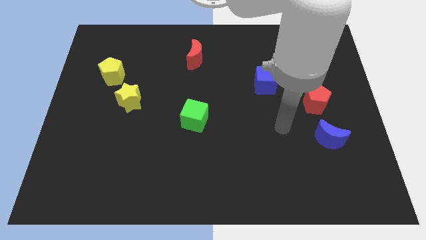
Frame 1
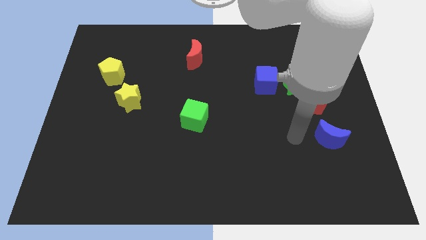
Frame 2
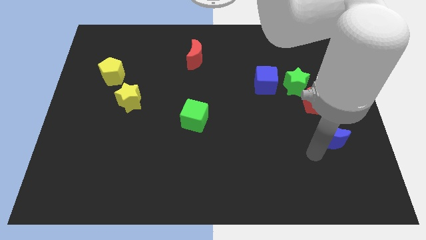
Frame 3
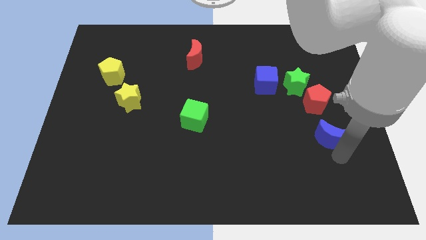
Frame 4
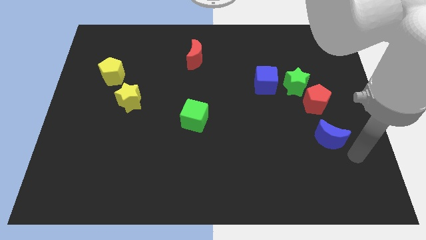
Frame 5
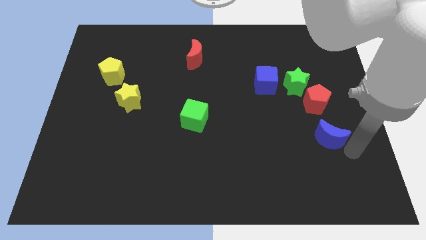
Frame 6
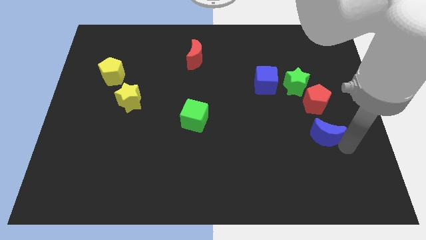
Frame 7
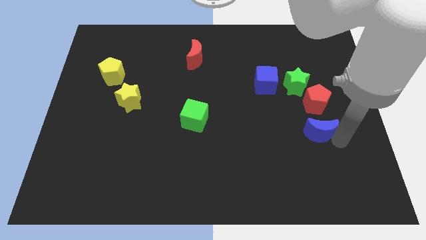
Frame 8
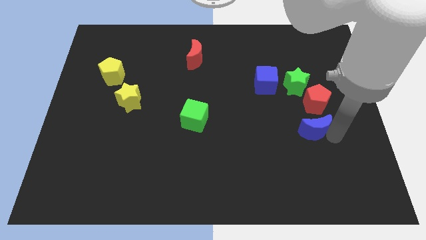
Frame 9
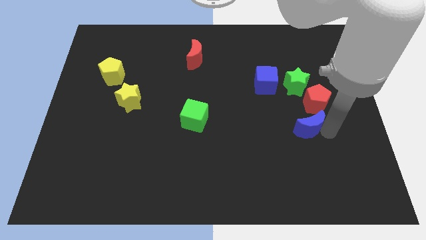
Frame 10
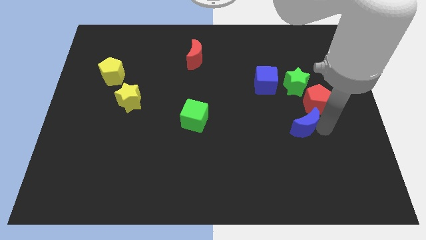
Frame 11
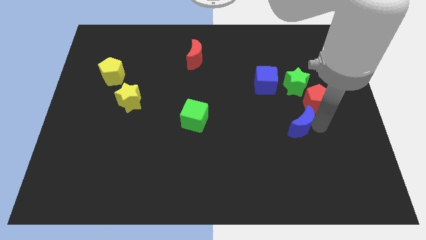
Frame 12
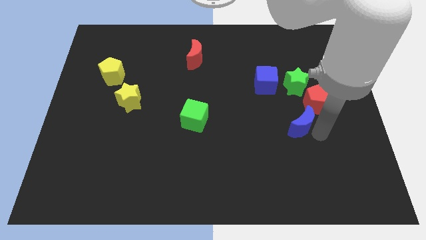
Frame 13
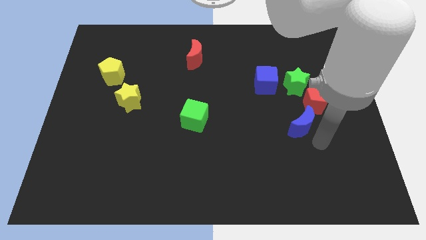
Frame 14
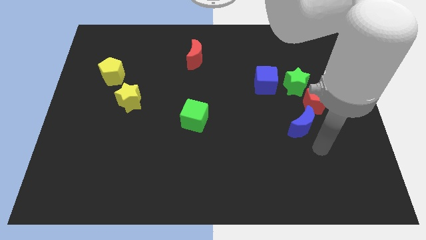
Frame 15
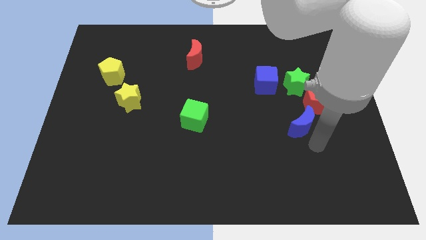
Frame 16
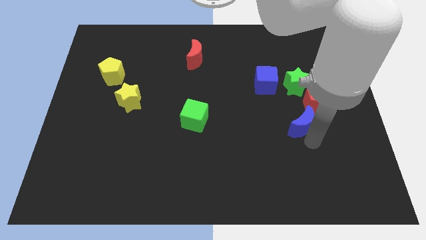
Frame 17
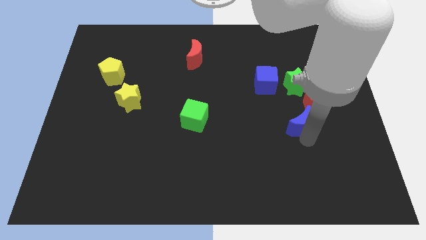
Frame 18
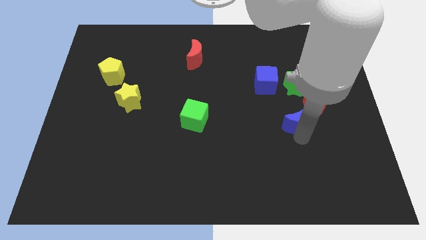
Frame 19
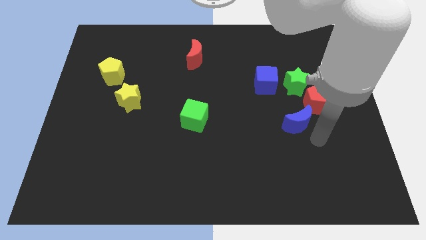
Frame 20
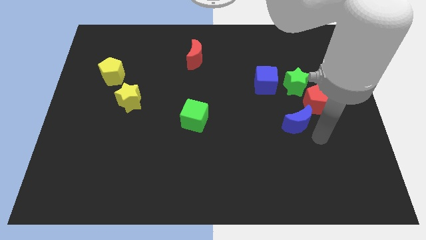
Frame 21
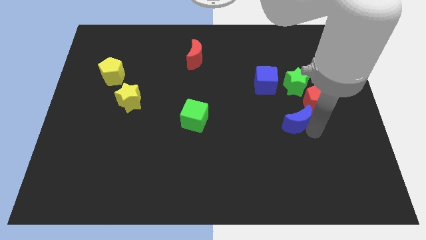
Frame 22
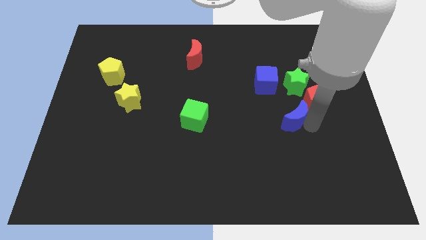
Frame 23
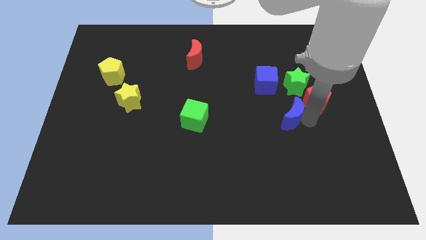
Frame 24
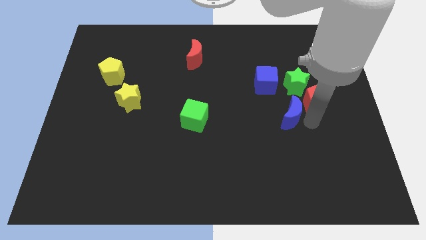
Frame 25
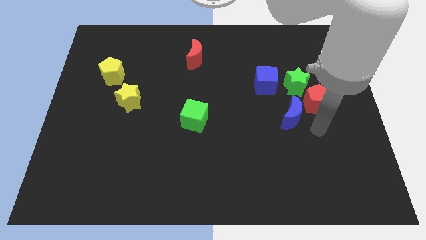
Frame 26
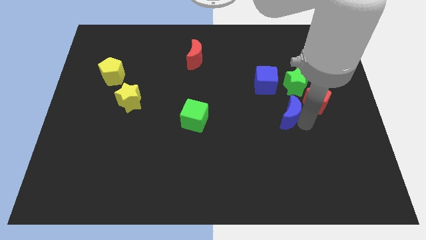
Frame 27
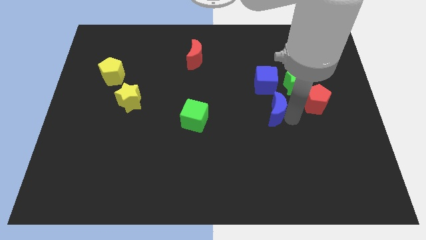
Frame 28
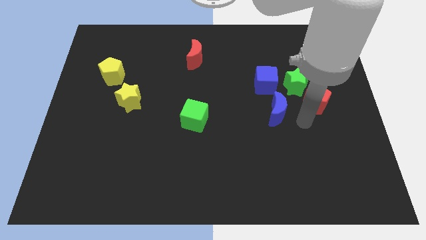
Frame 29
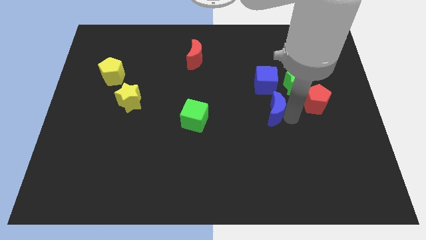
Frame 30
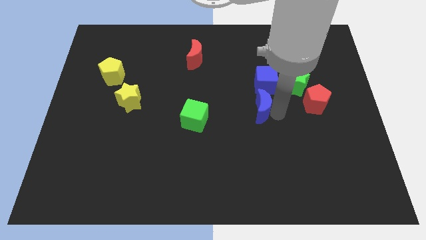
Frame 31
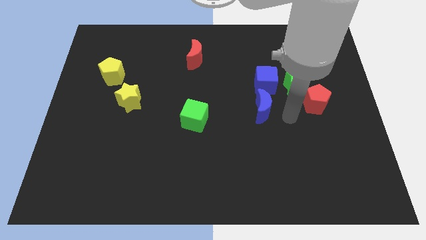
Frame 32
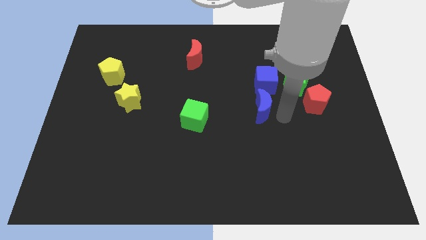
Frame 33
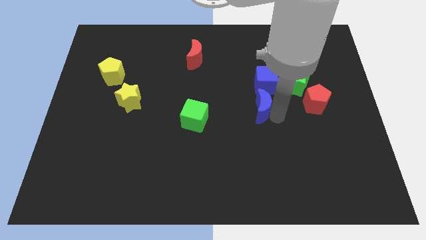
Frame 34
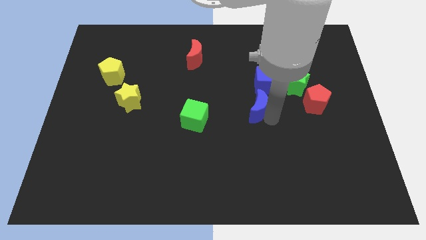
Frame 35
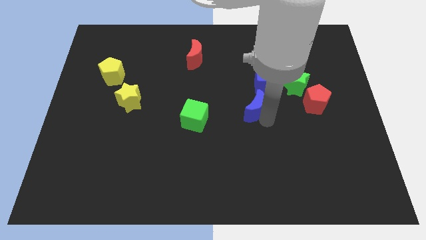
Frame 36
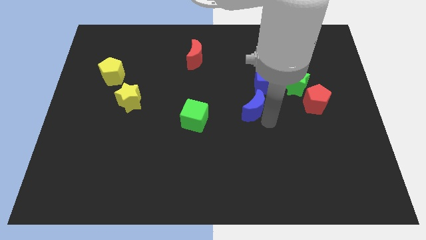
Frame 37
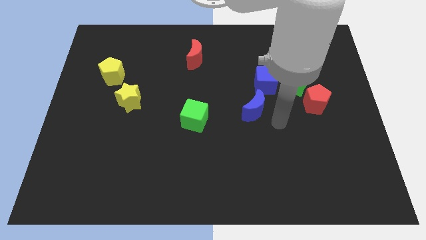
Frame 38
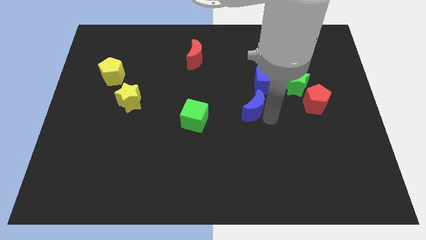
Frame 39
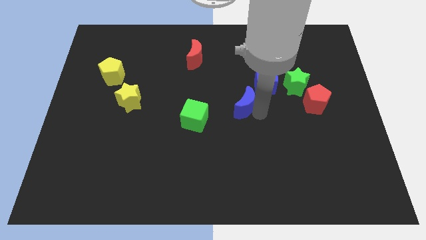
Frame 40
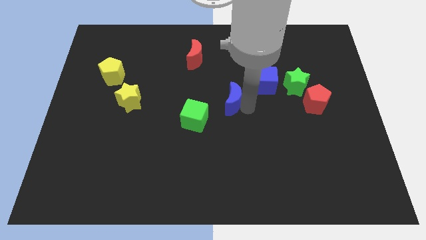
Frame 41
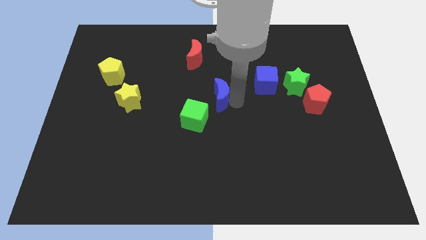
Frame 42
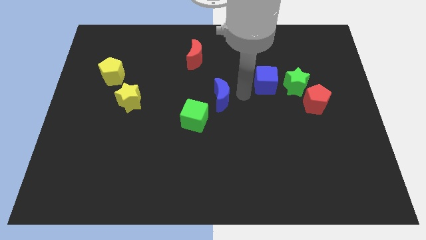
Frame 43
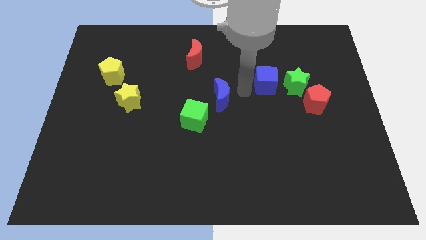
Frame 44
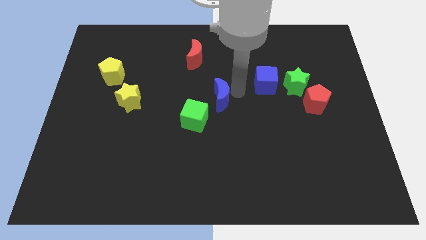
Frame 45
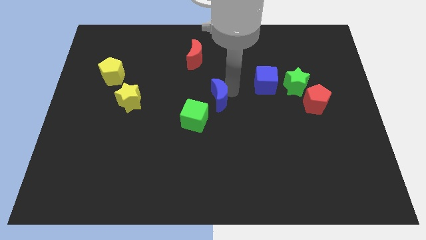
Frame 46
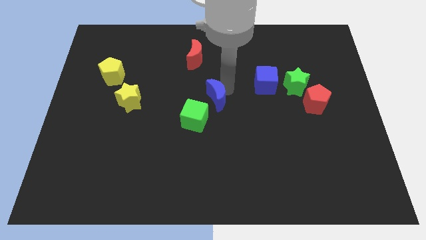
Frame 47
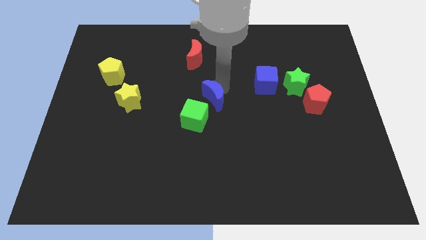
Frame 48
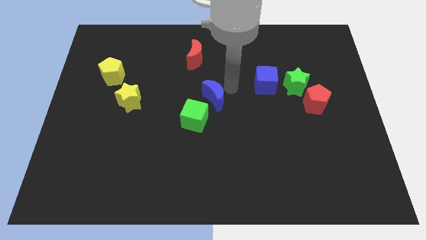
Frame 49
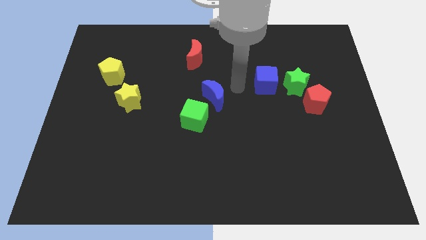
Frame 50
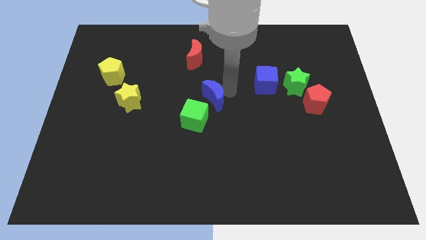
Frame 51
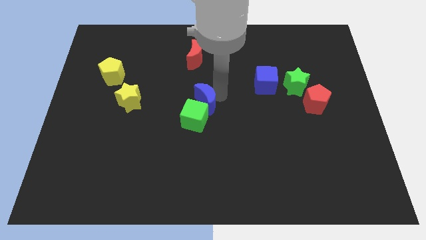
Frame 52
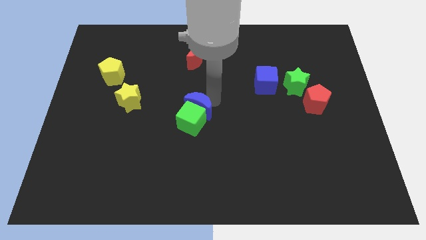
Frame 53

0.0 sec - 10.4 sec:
push the blue moon to the top left side of the green cube

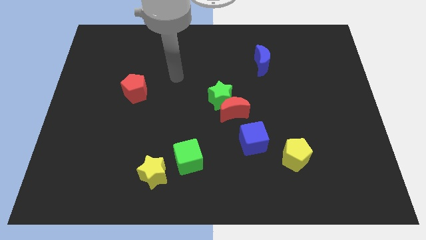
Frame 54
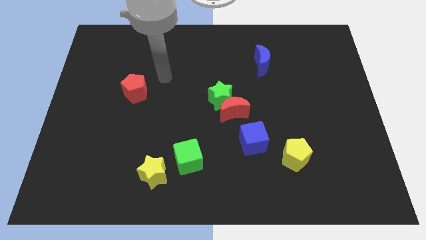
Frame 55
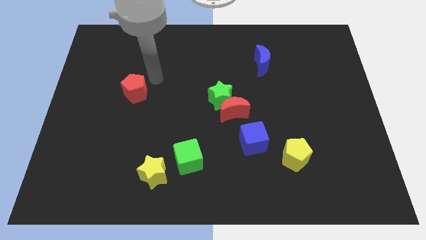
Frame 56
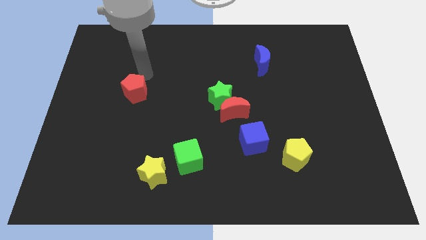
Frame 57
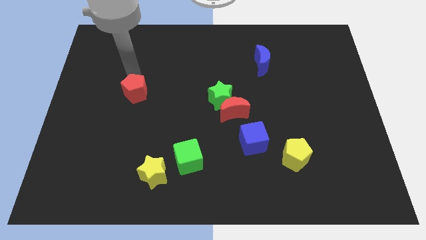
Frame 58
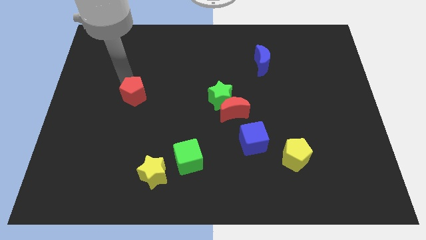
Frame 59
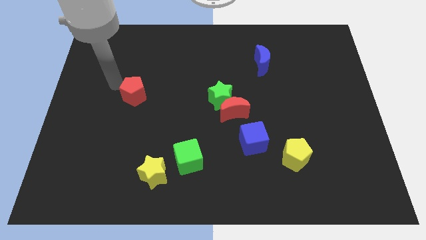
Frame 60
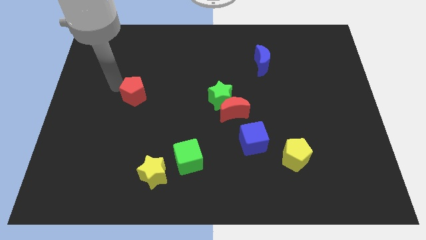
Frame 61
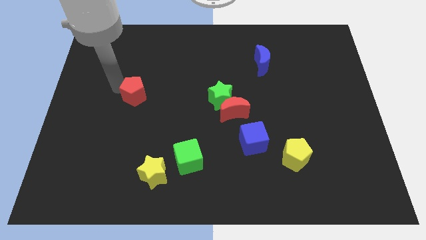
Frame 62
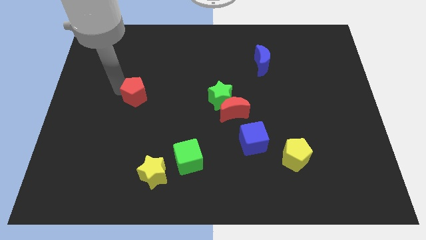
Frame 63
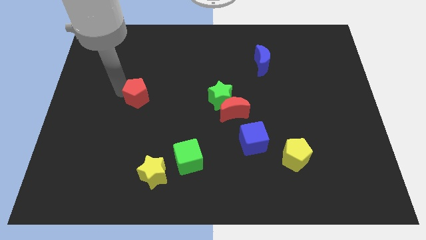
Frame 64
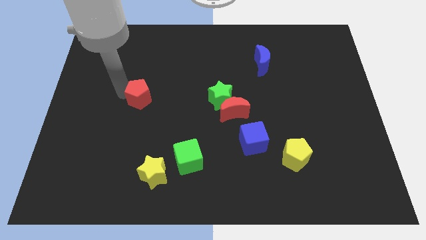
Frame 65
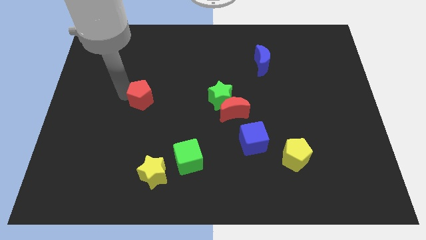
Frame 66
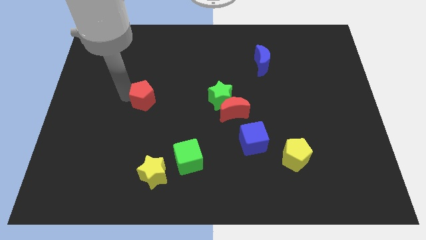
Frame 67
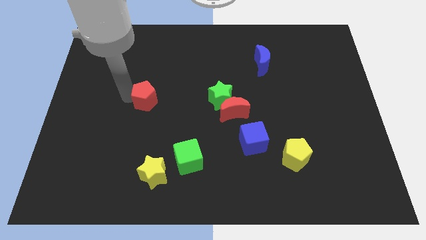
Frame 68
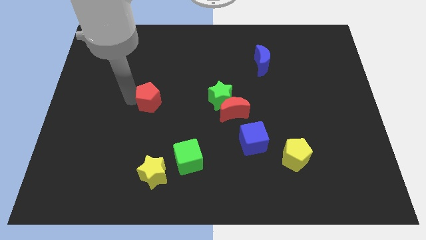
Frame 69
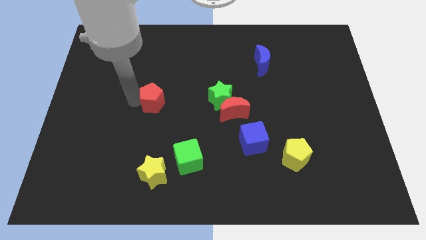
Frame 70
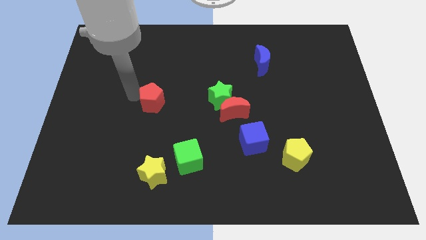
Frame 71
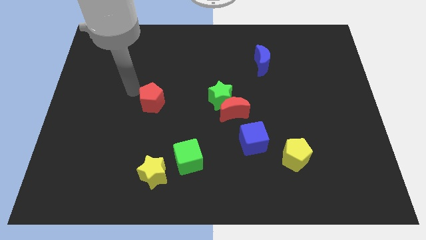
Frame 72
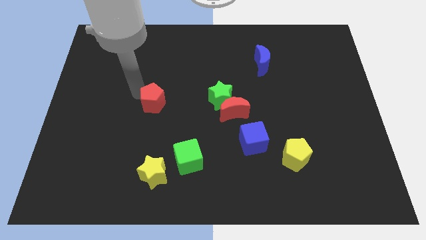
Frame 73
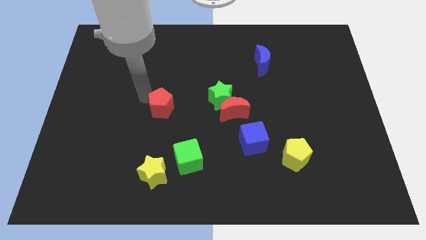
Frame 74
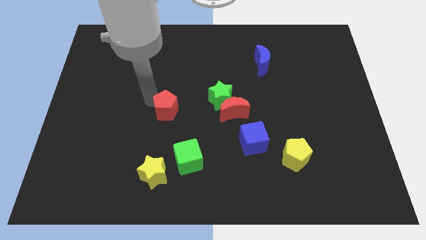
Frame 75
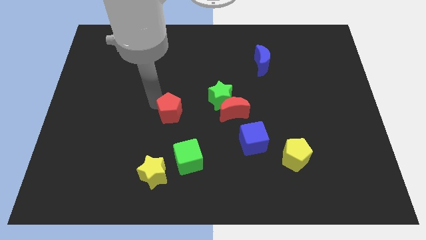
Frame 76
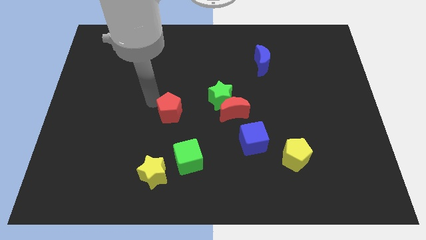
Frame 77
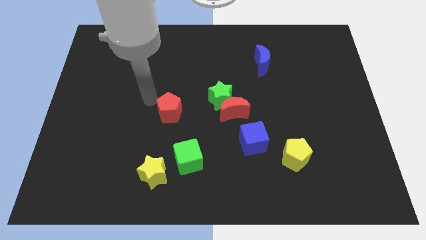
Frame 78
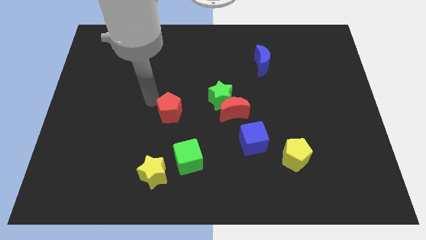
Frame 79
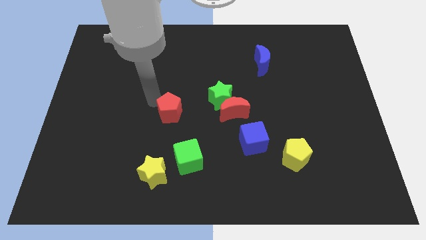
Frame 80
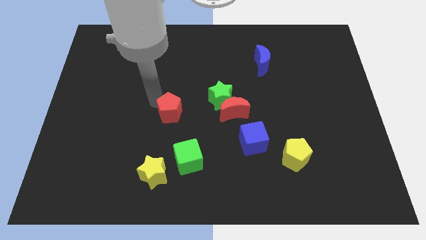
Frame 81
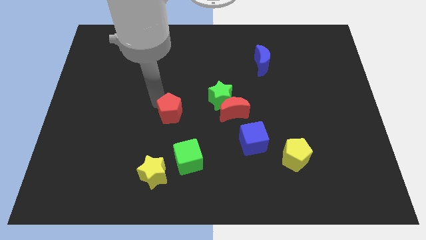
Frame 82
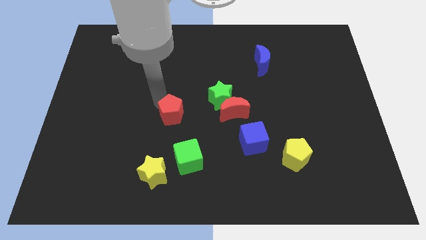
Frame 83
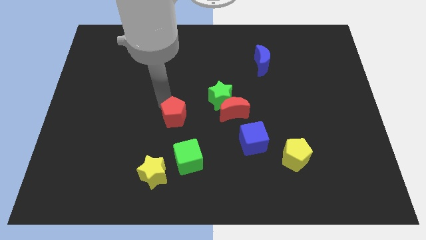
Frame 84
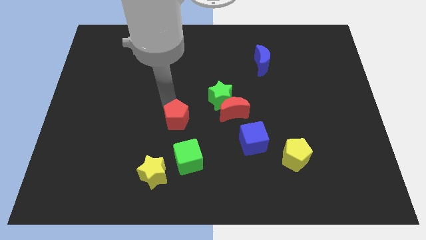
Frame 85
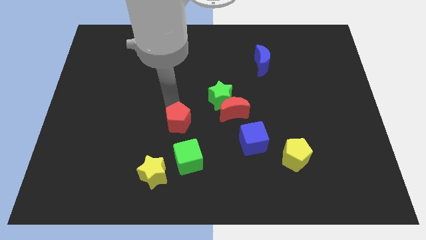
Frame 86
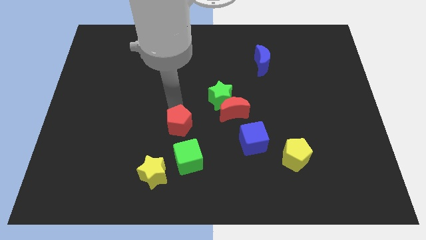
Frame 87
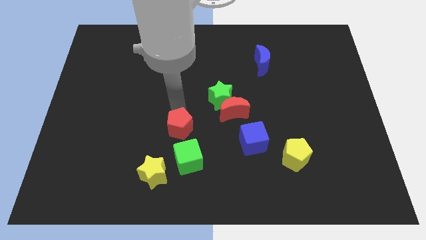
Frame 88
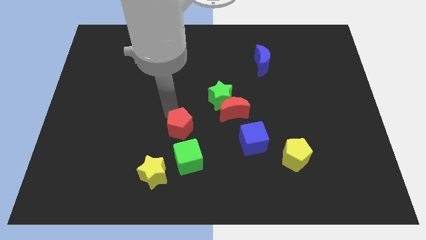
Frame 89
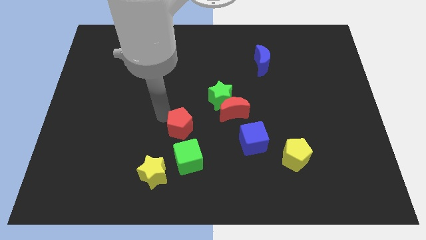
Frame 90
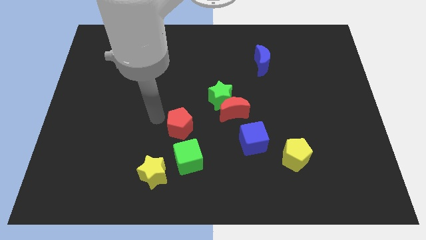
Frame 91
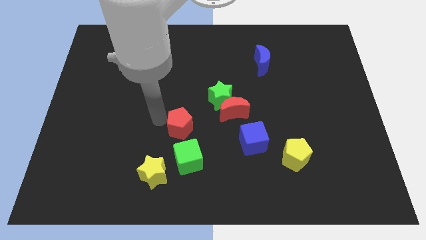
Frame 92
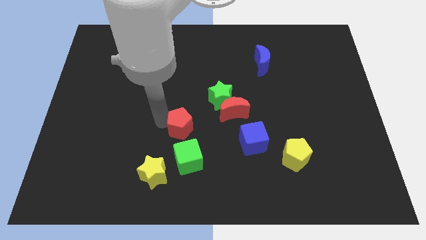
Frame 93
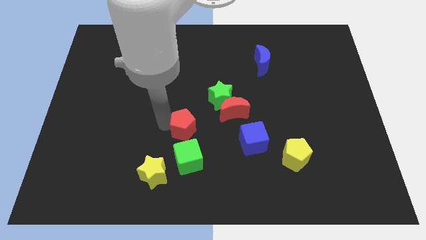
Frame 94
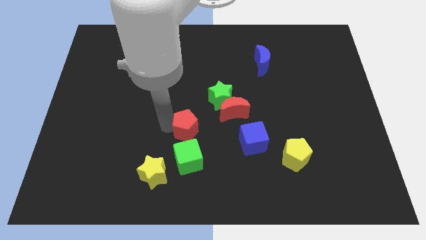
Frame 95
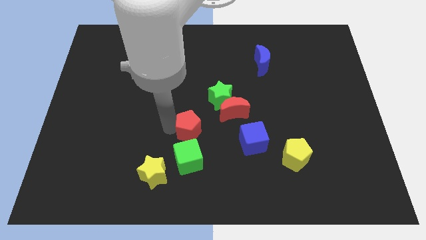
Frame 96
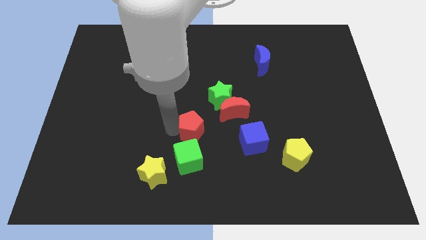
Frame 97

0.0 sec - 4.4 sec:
push the red pentagon to the top right of the green cube
